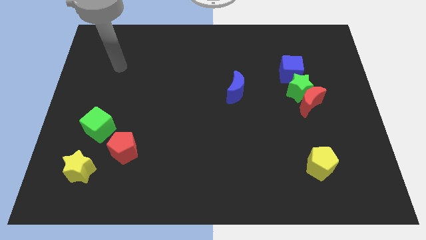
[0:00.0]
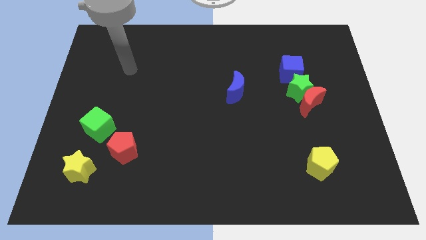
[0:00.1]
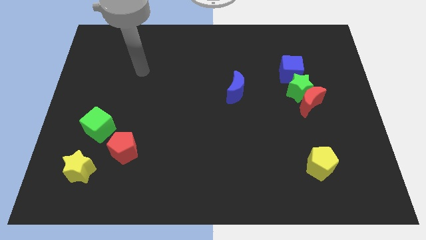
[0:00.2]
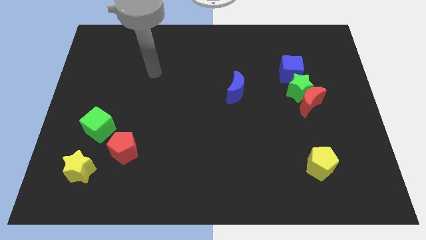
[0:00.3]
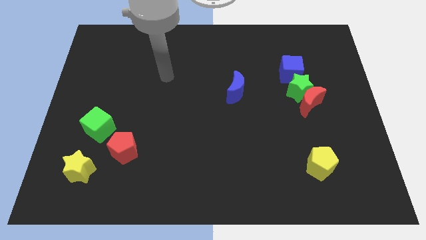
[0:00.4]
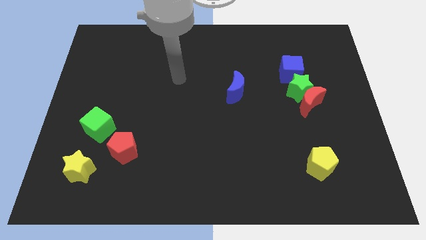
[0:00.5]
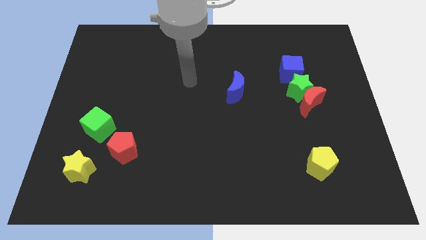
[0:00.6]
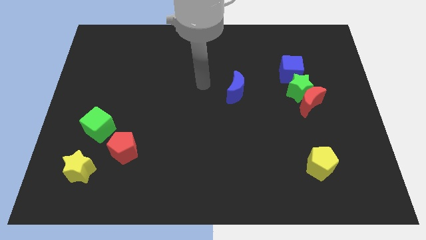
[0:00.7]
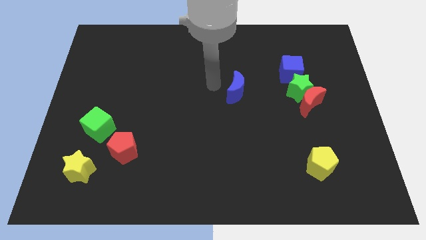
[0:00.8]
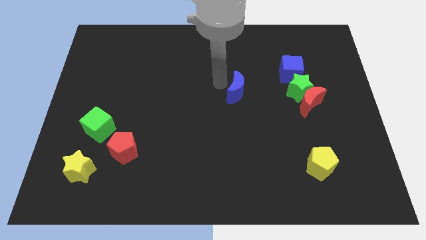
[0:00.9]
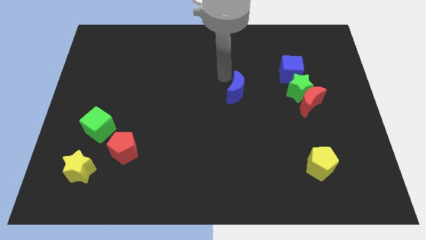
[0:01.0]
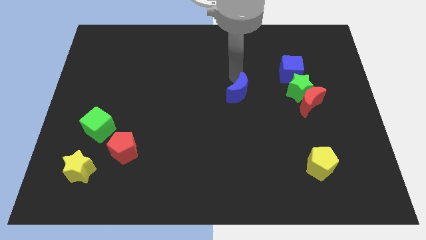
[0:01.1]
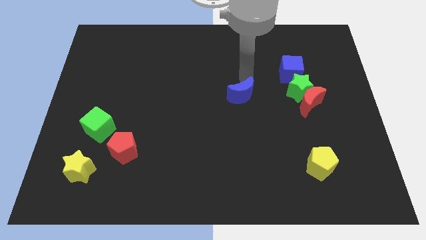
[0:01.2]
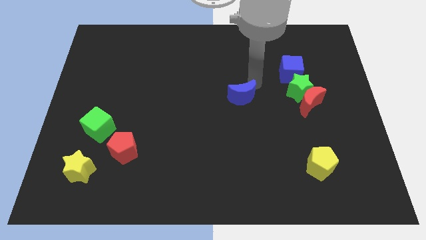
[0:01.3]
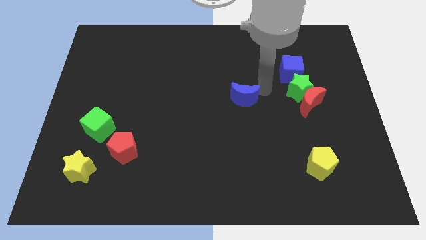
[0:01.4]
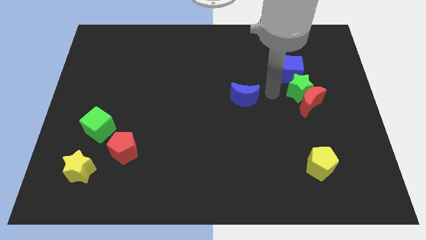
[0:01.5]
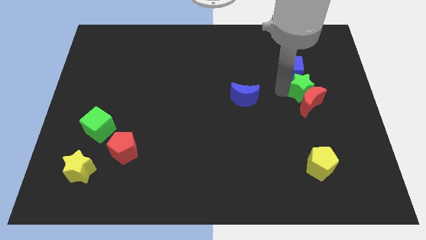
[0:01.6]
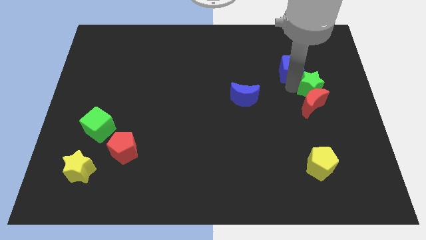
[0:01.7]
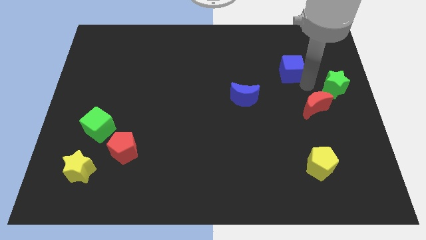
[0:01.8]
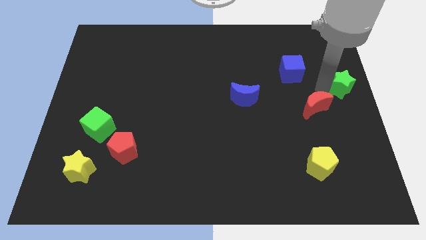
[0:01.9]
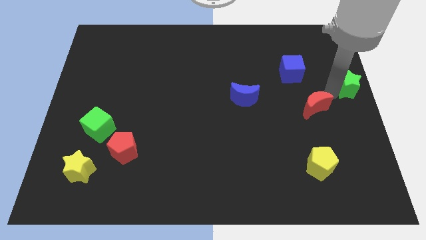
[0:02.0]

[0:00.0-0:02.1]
pull the red moon apart from the green star

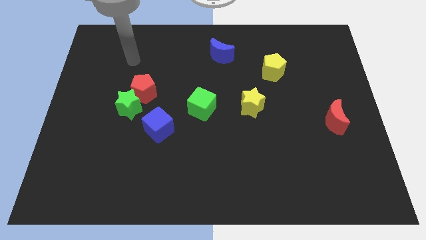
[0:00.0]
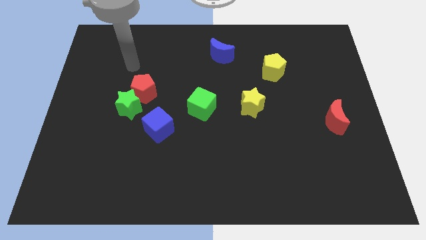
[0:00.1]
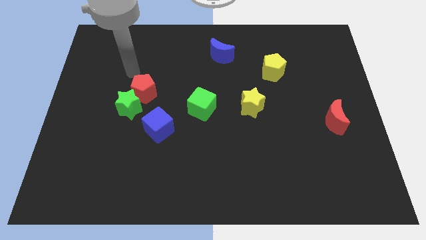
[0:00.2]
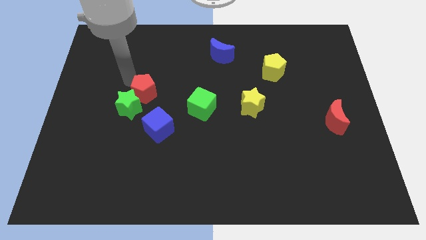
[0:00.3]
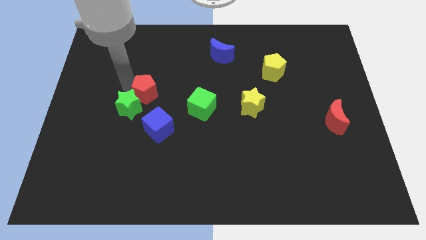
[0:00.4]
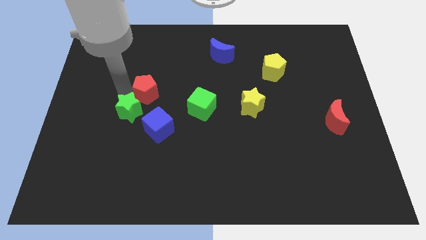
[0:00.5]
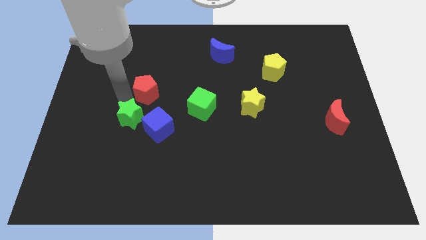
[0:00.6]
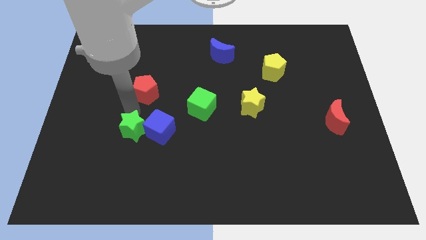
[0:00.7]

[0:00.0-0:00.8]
separate the red pentagon from the green star

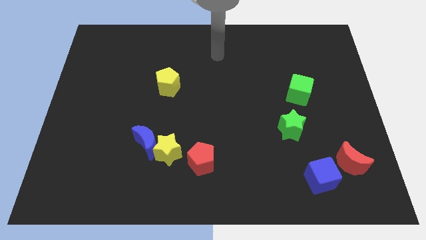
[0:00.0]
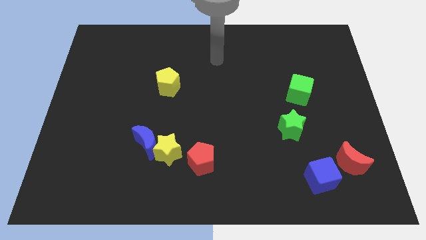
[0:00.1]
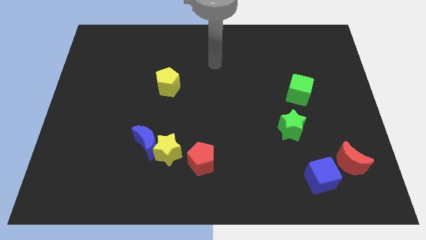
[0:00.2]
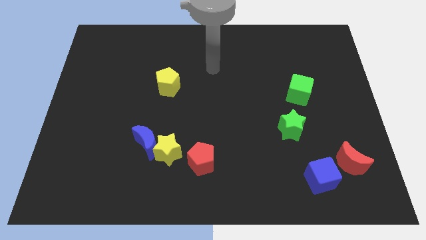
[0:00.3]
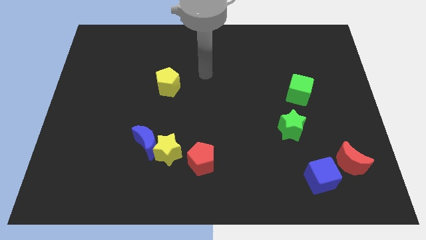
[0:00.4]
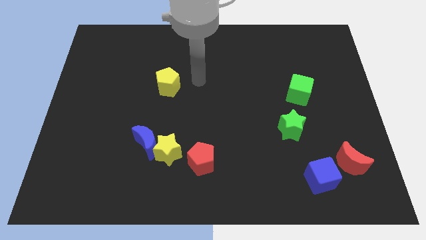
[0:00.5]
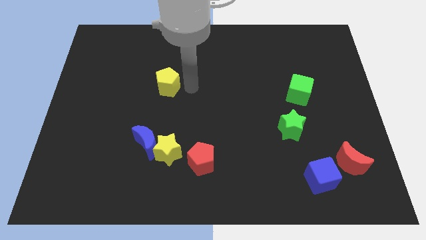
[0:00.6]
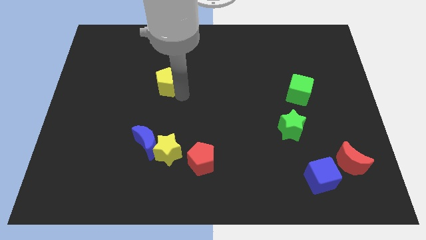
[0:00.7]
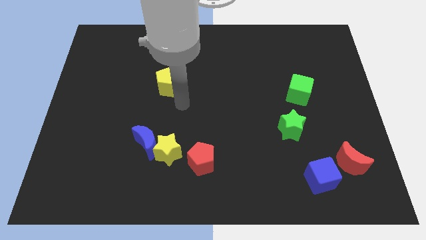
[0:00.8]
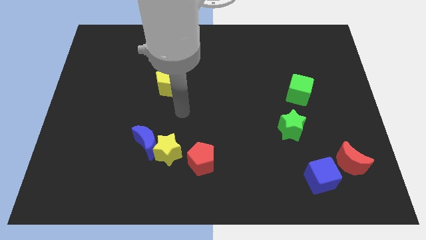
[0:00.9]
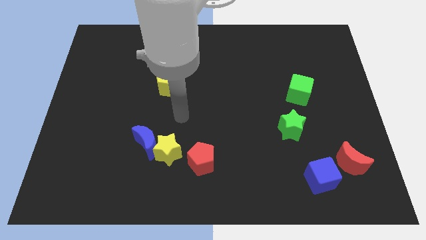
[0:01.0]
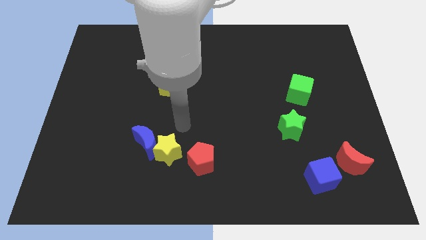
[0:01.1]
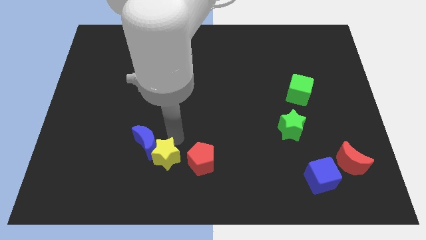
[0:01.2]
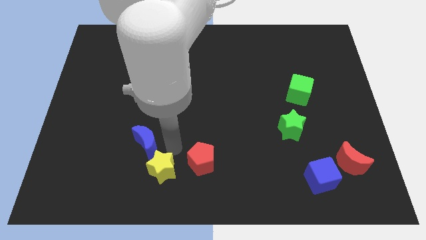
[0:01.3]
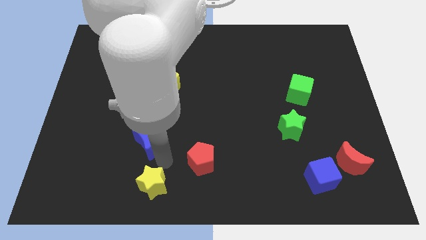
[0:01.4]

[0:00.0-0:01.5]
pull the blue moon apart from the yellow star

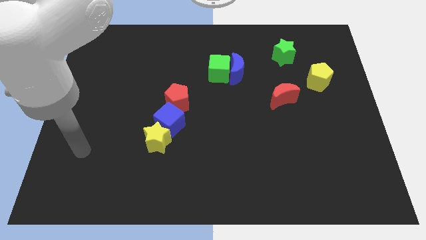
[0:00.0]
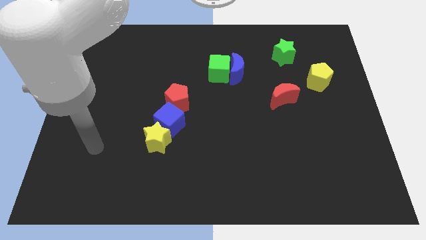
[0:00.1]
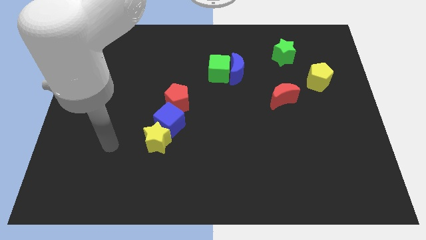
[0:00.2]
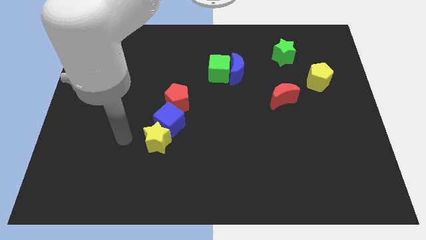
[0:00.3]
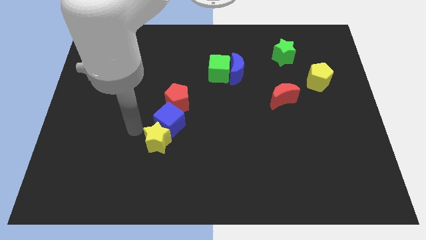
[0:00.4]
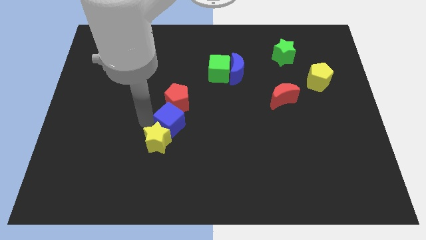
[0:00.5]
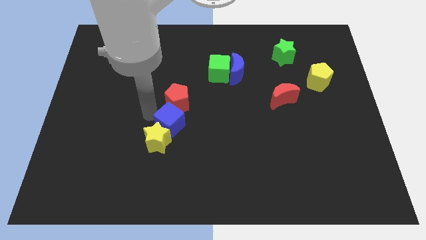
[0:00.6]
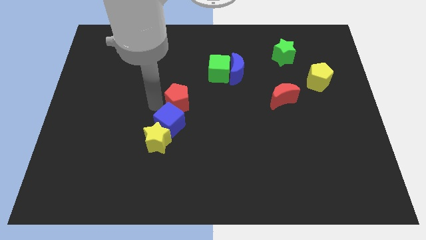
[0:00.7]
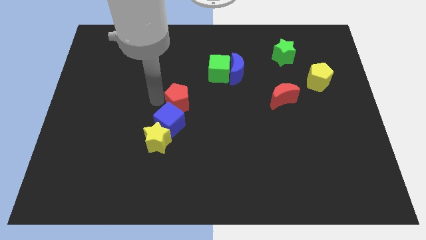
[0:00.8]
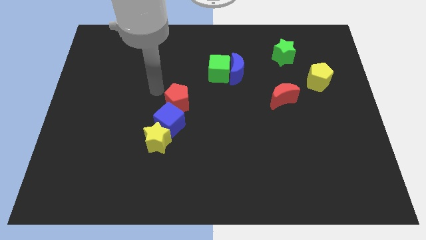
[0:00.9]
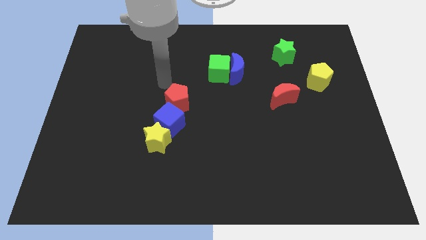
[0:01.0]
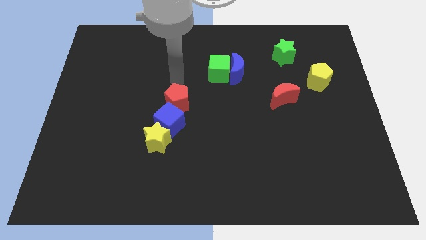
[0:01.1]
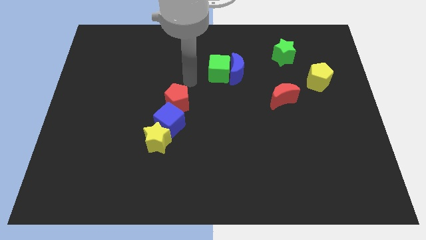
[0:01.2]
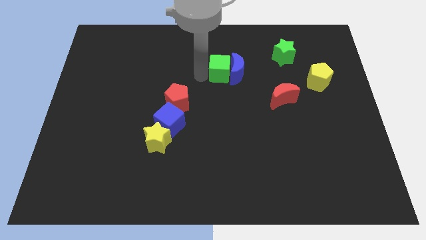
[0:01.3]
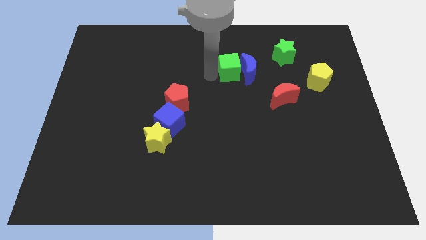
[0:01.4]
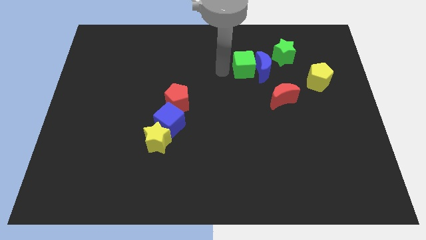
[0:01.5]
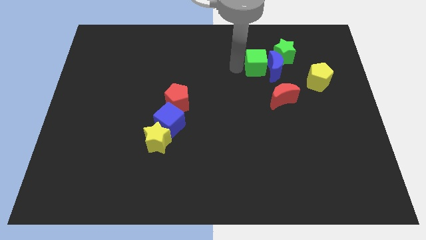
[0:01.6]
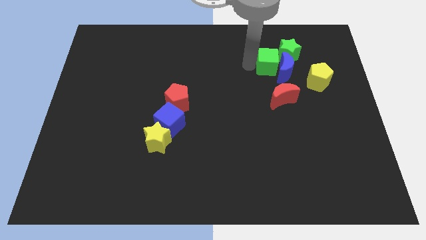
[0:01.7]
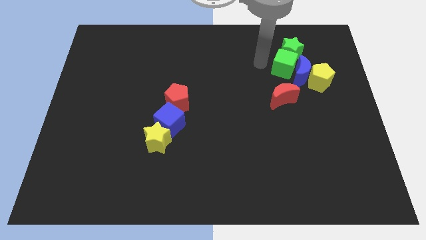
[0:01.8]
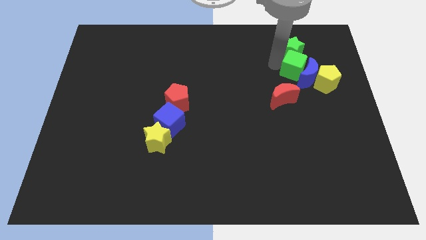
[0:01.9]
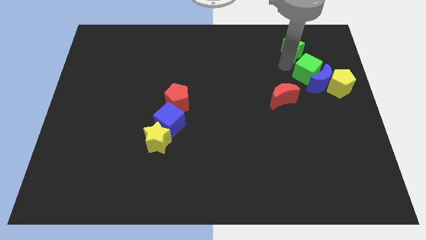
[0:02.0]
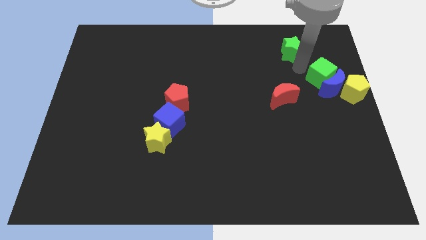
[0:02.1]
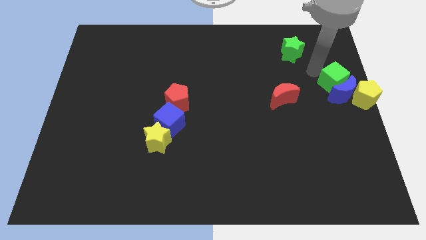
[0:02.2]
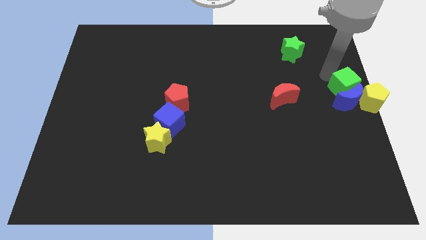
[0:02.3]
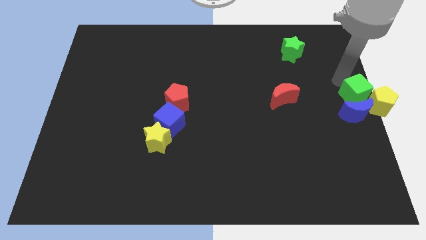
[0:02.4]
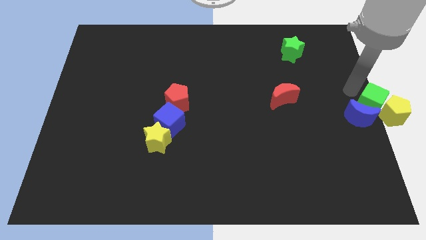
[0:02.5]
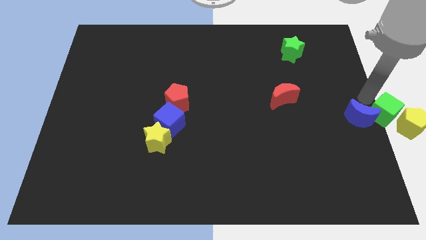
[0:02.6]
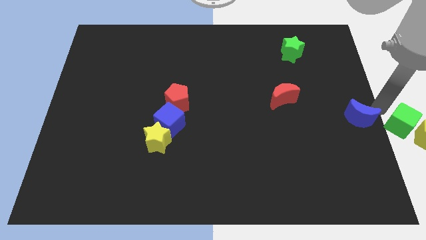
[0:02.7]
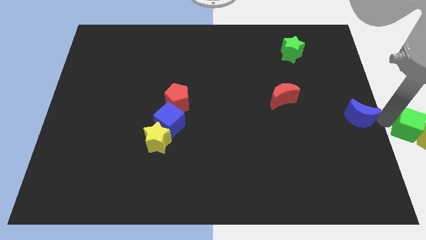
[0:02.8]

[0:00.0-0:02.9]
move the blue moon away from the green cube

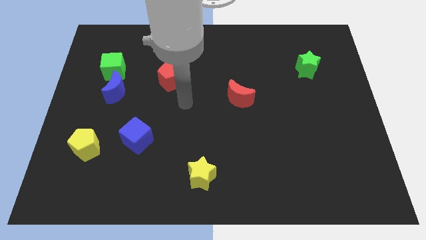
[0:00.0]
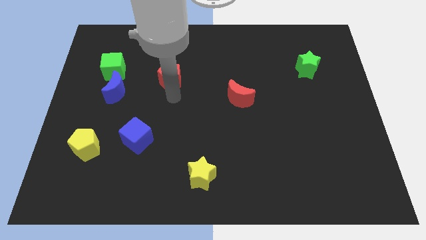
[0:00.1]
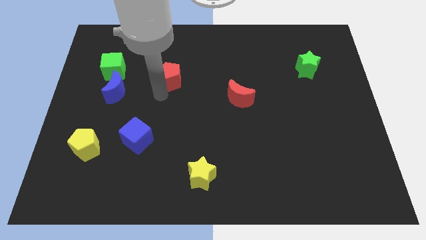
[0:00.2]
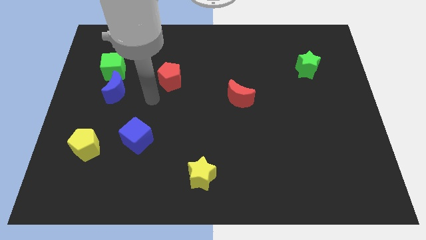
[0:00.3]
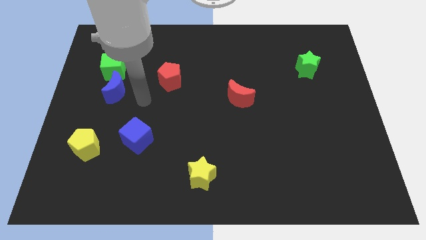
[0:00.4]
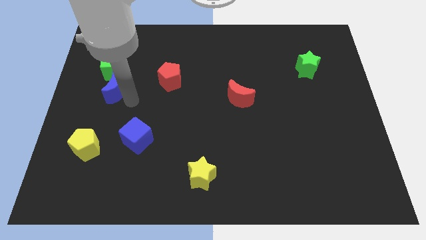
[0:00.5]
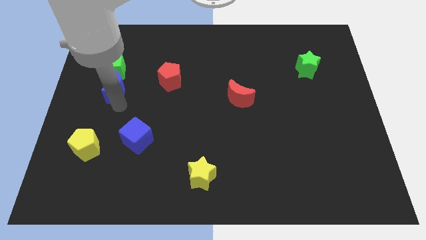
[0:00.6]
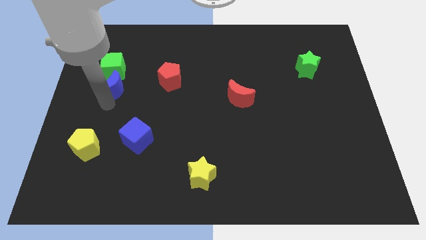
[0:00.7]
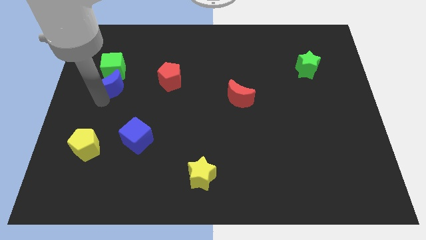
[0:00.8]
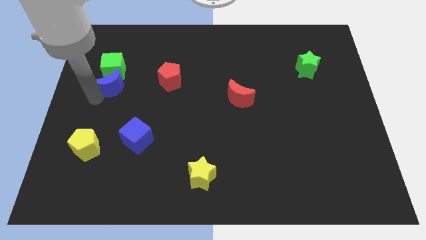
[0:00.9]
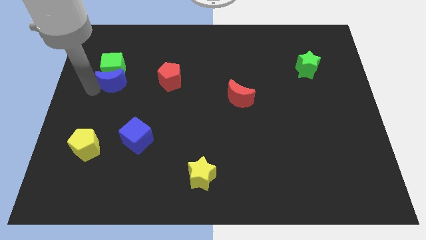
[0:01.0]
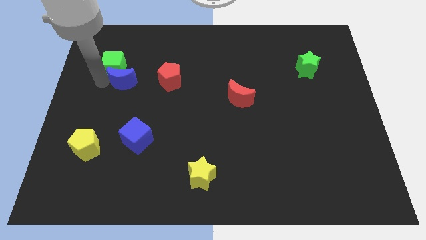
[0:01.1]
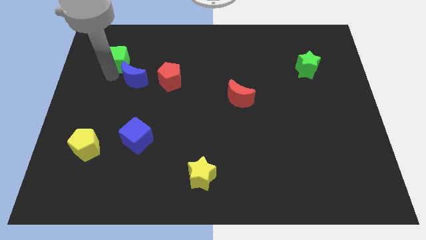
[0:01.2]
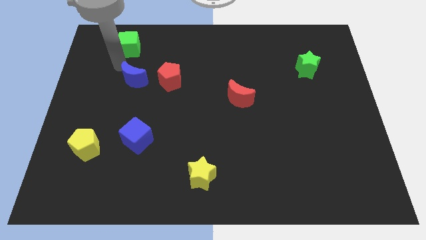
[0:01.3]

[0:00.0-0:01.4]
separate the blue moon from the green cube

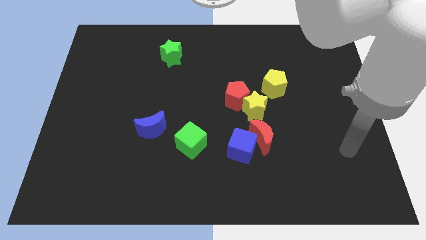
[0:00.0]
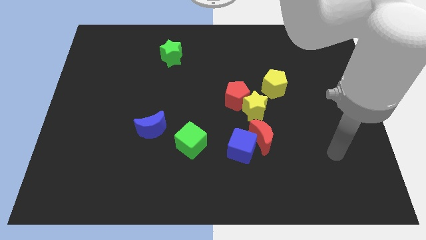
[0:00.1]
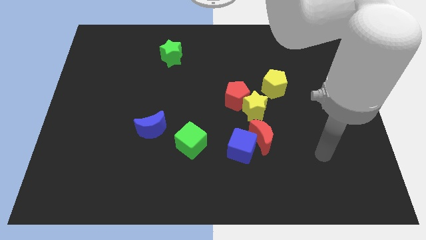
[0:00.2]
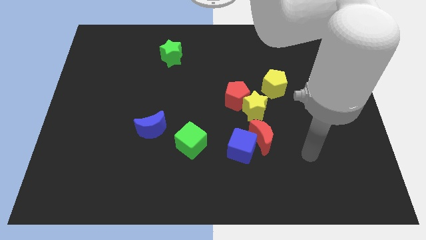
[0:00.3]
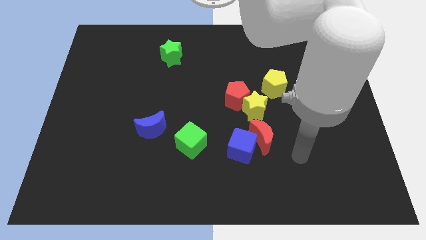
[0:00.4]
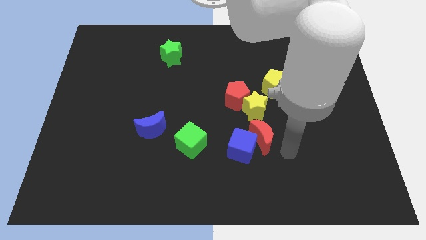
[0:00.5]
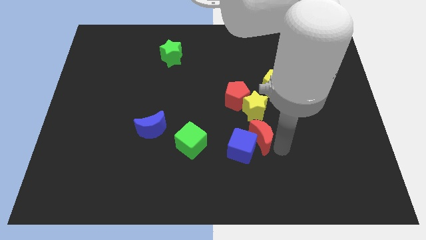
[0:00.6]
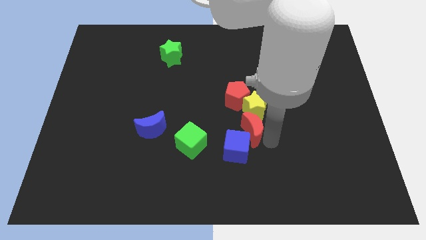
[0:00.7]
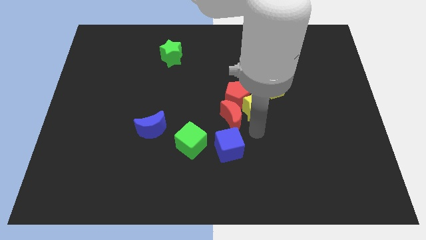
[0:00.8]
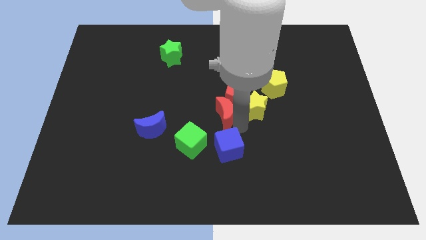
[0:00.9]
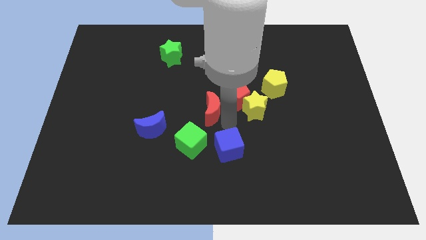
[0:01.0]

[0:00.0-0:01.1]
separate the blue cube from the red moon
